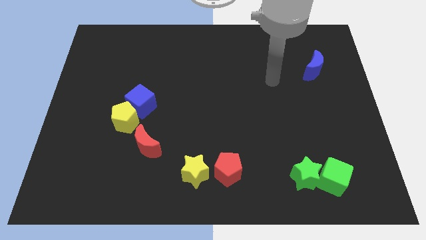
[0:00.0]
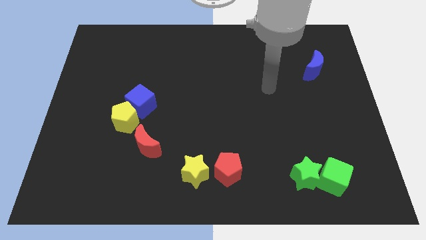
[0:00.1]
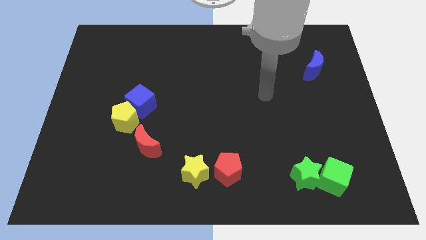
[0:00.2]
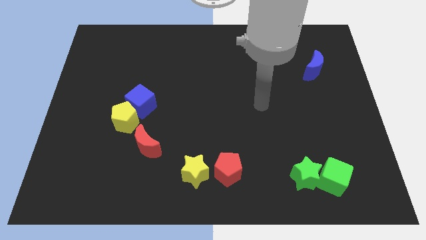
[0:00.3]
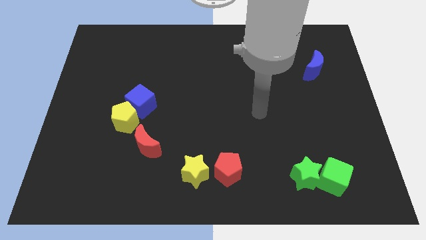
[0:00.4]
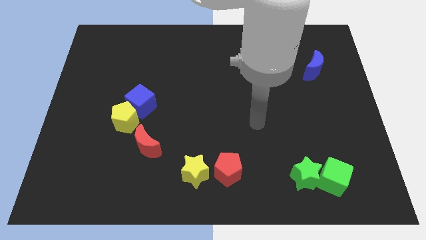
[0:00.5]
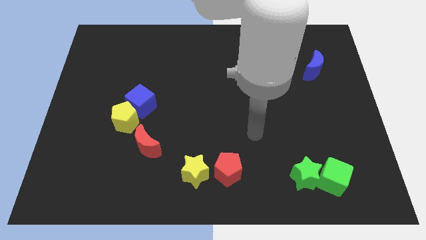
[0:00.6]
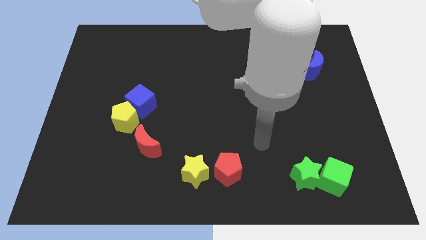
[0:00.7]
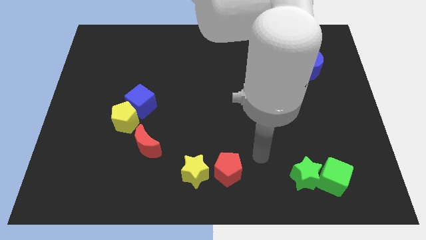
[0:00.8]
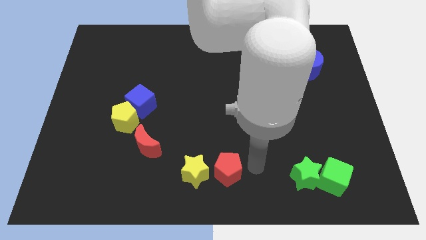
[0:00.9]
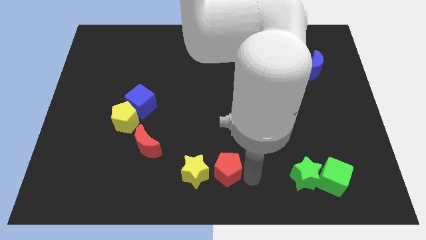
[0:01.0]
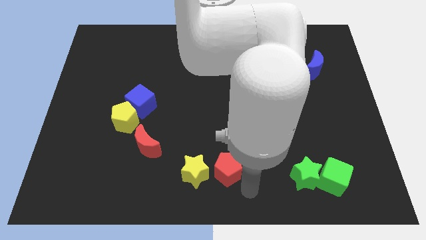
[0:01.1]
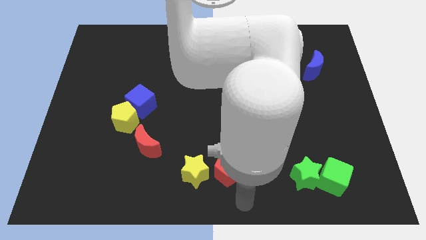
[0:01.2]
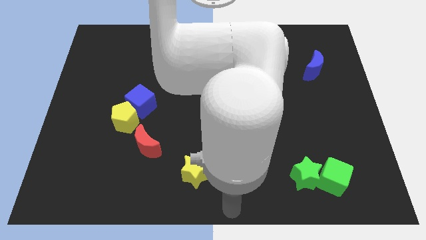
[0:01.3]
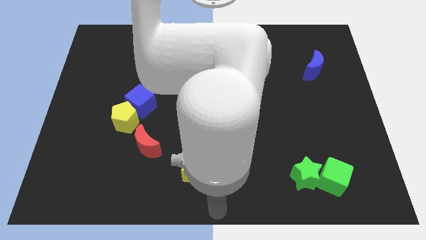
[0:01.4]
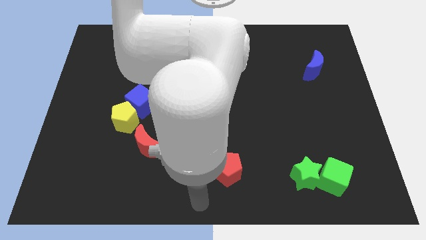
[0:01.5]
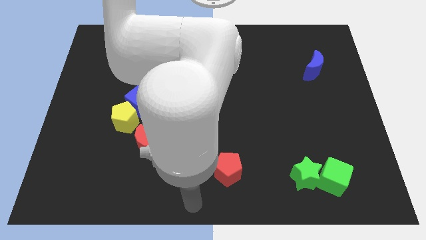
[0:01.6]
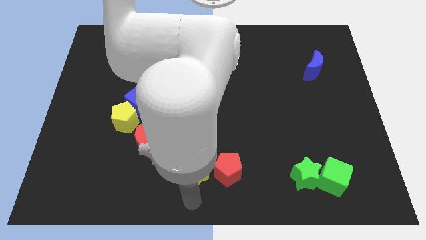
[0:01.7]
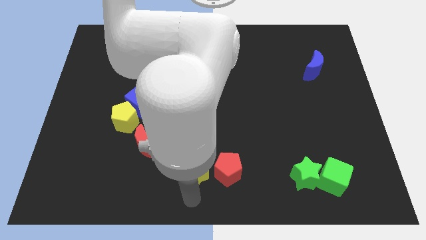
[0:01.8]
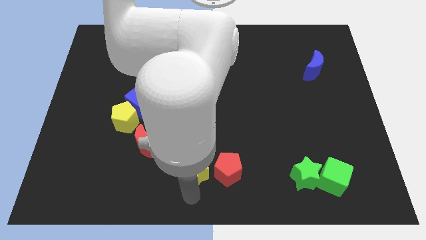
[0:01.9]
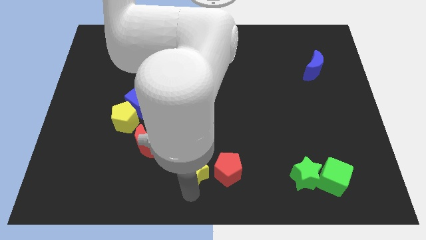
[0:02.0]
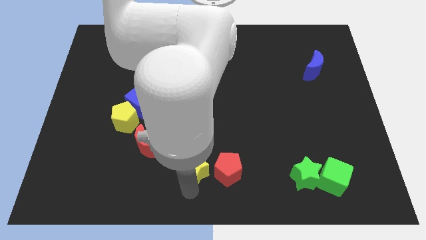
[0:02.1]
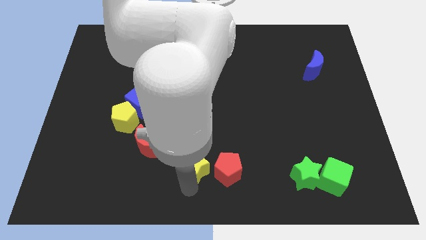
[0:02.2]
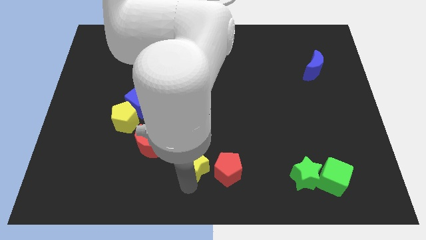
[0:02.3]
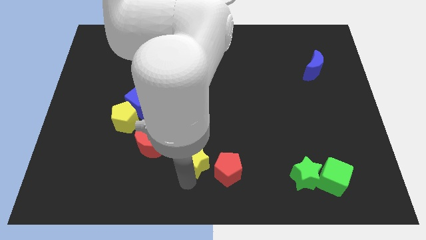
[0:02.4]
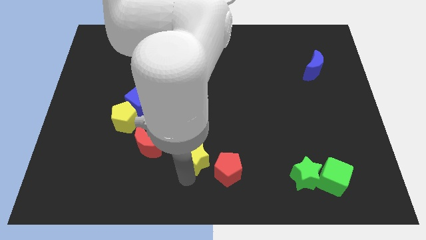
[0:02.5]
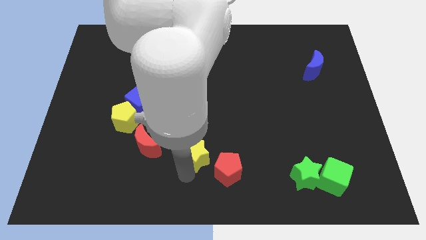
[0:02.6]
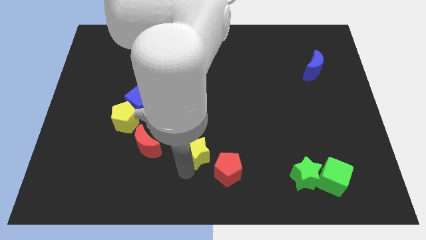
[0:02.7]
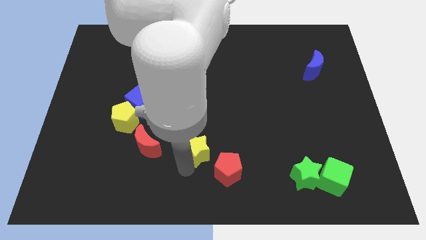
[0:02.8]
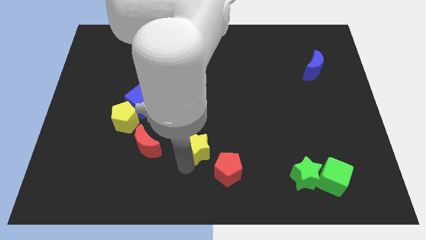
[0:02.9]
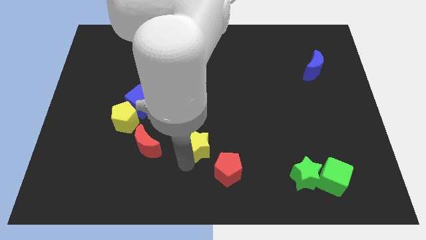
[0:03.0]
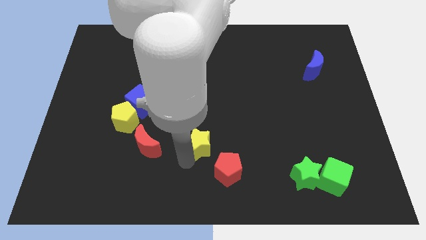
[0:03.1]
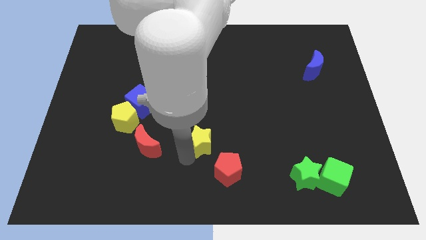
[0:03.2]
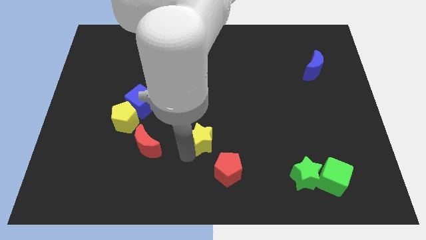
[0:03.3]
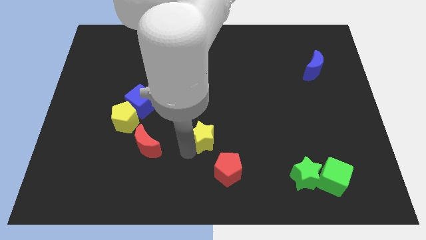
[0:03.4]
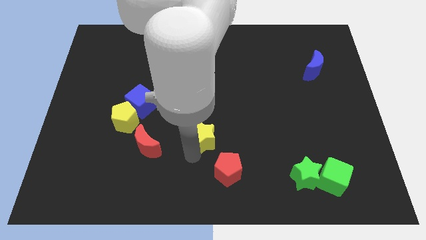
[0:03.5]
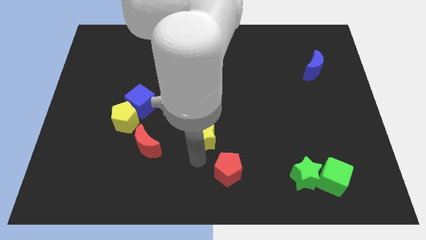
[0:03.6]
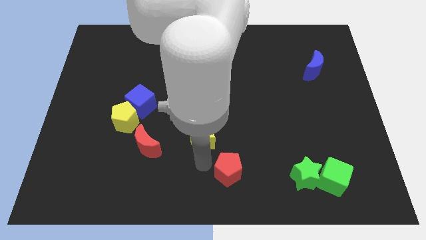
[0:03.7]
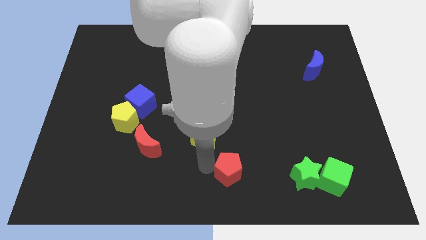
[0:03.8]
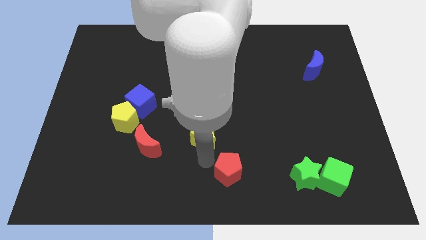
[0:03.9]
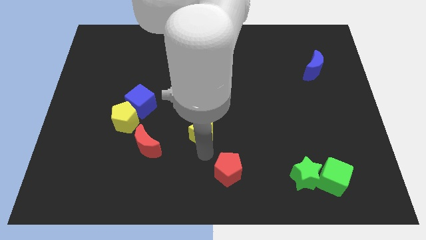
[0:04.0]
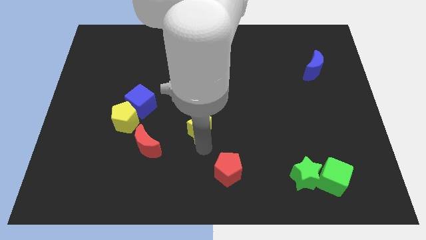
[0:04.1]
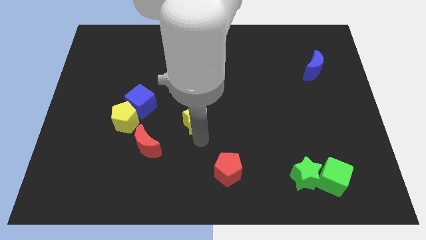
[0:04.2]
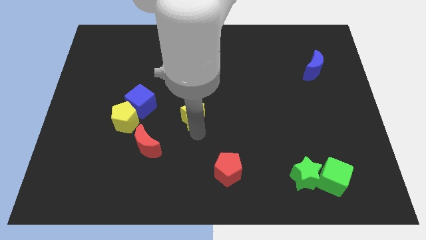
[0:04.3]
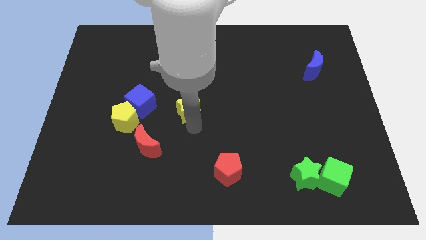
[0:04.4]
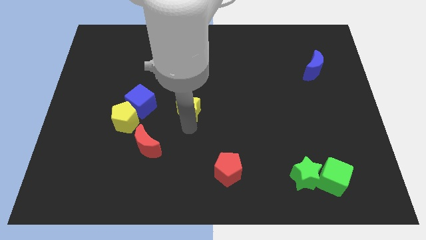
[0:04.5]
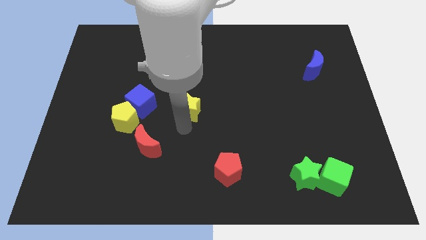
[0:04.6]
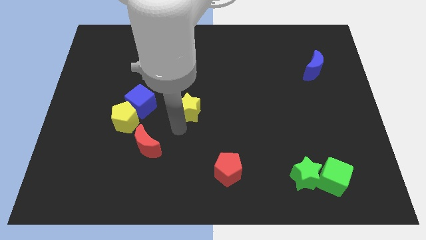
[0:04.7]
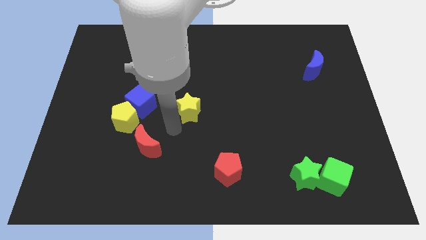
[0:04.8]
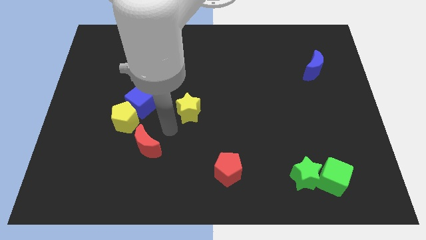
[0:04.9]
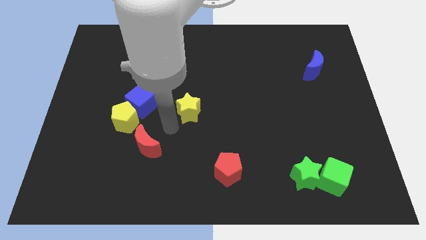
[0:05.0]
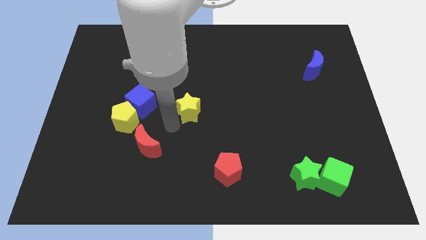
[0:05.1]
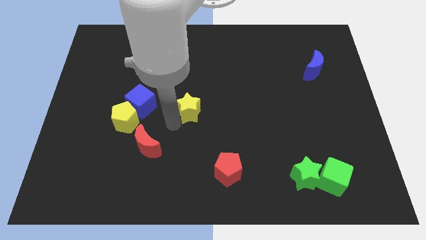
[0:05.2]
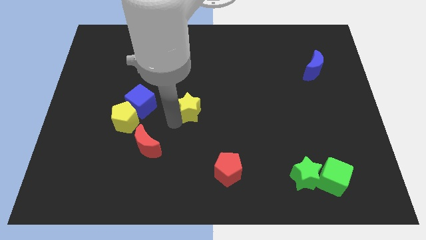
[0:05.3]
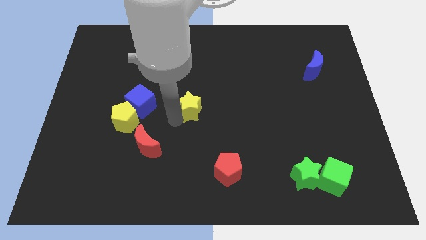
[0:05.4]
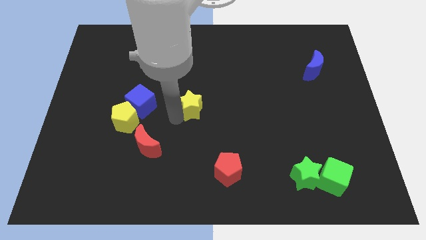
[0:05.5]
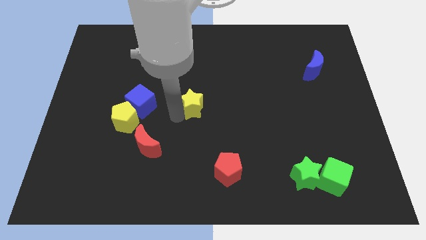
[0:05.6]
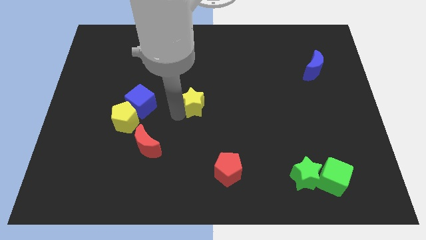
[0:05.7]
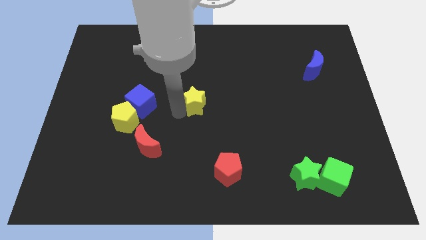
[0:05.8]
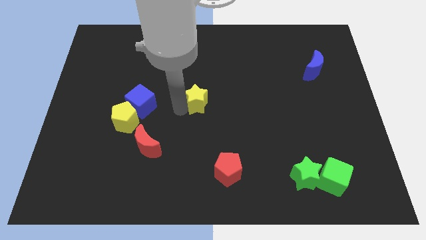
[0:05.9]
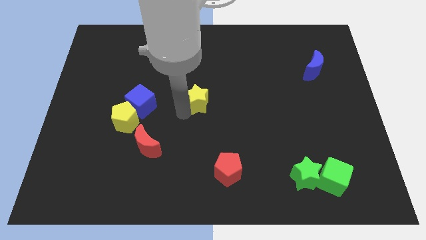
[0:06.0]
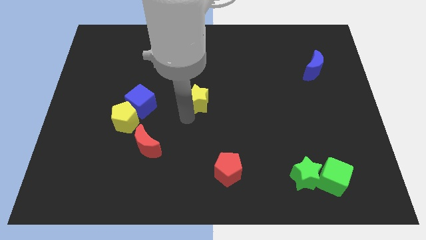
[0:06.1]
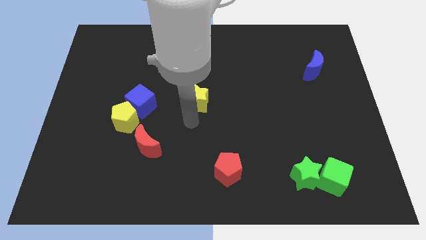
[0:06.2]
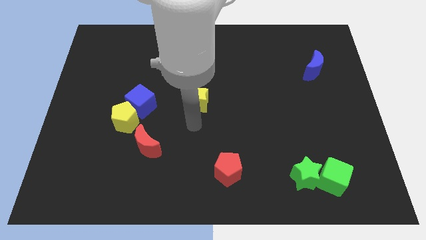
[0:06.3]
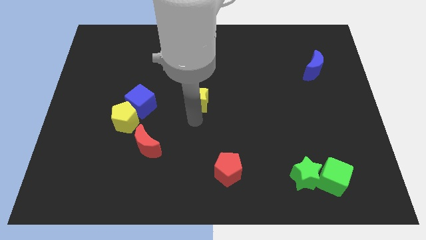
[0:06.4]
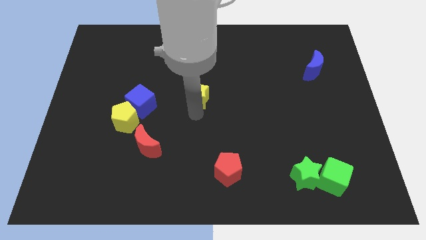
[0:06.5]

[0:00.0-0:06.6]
move the yellow star up

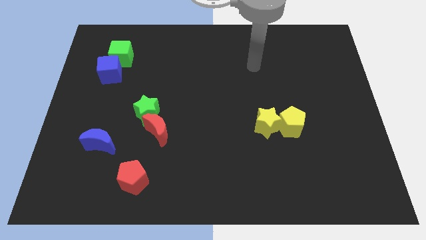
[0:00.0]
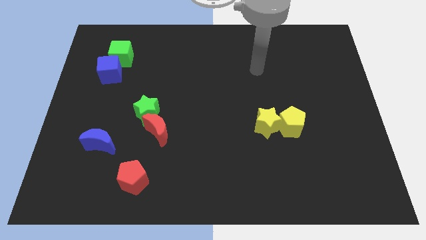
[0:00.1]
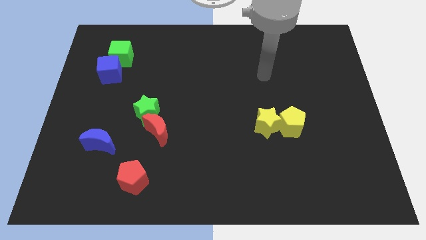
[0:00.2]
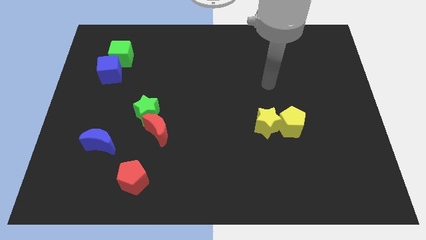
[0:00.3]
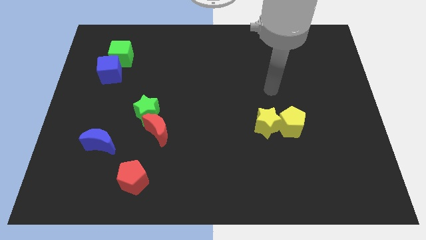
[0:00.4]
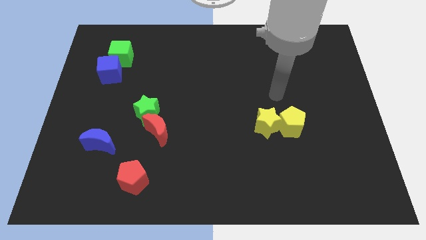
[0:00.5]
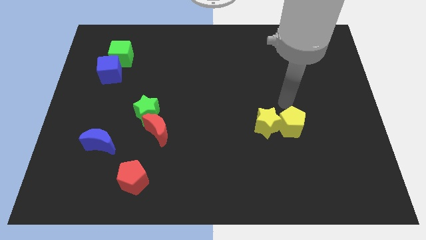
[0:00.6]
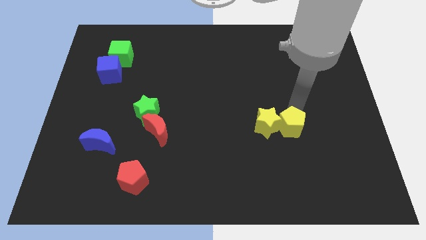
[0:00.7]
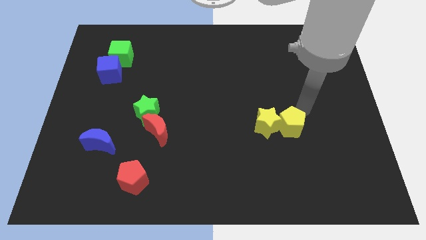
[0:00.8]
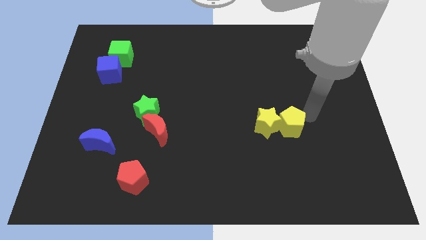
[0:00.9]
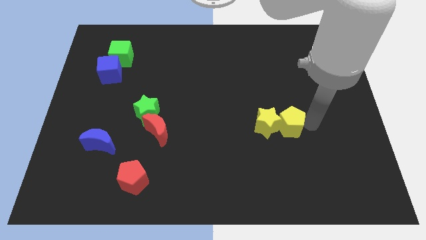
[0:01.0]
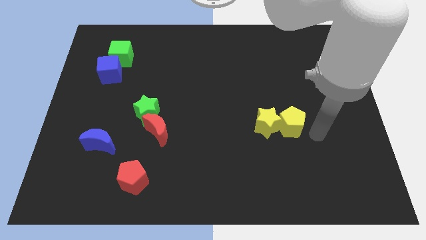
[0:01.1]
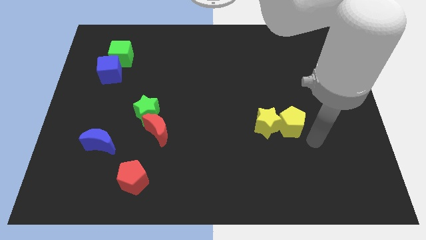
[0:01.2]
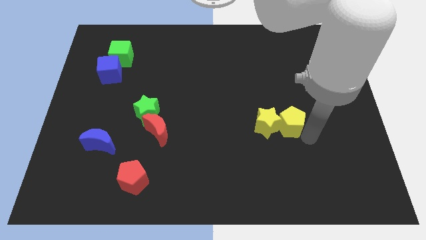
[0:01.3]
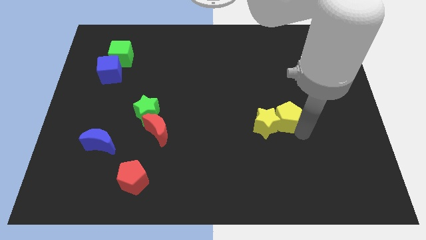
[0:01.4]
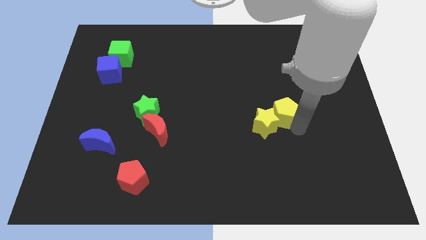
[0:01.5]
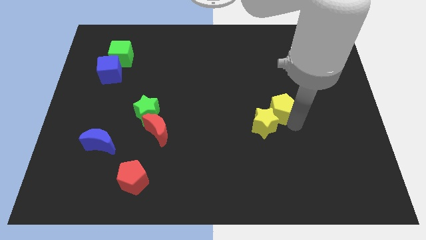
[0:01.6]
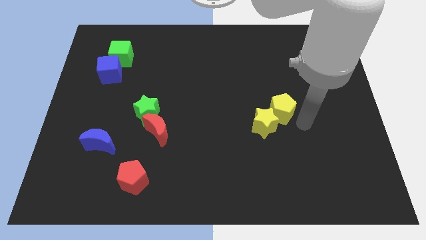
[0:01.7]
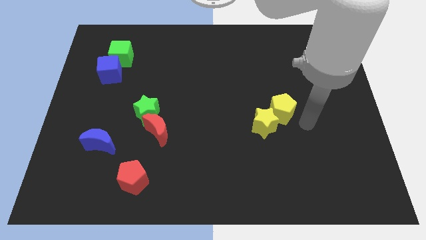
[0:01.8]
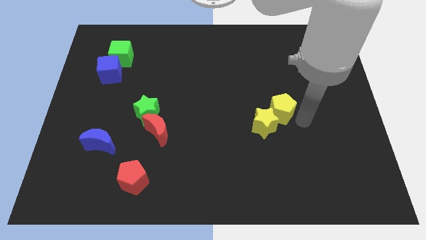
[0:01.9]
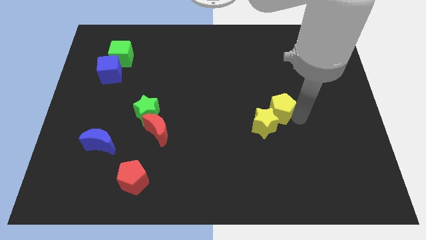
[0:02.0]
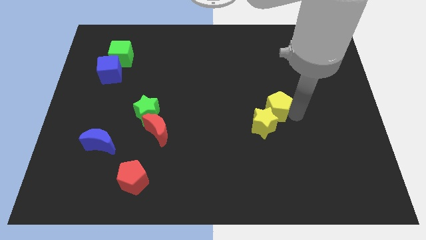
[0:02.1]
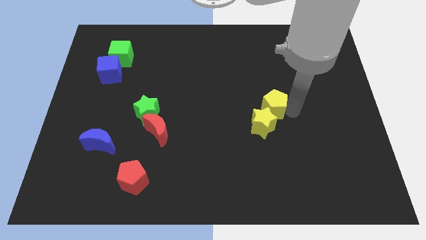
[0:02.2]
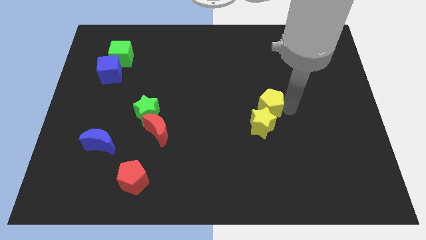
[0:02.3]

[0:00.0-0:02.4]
move the yellow pentagon up and then left a little bit
